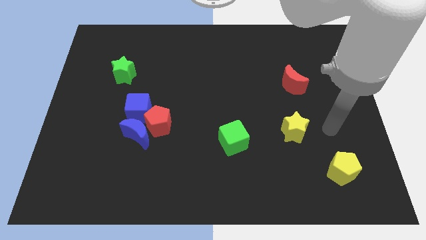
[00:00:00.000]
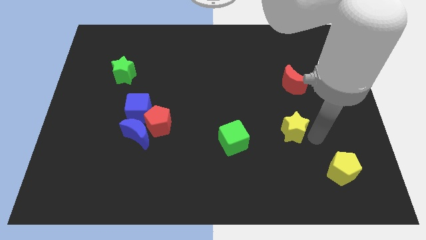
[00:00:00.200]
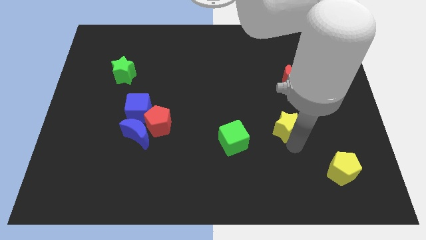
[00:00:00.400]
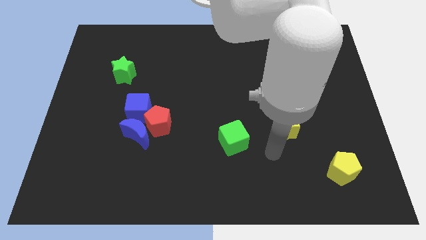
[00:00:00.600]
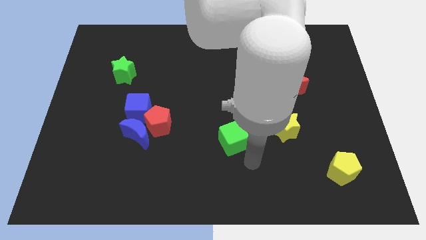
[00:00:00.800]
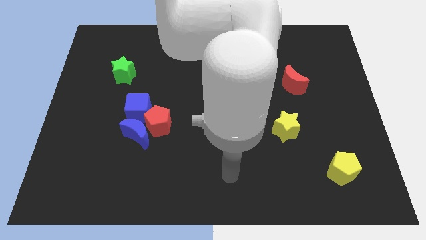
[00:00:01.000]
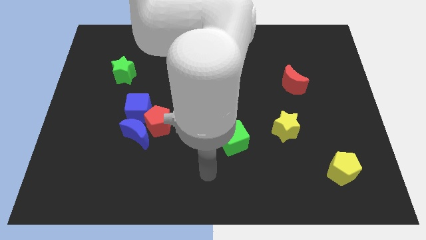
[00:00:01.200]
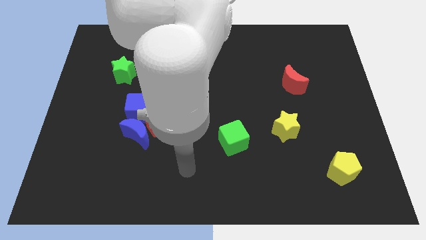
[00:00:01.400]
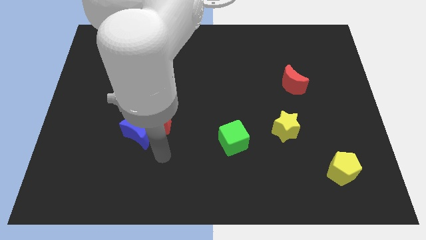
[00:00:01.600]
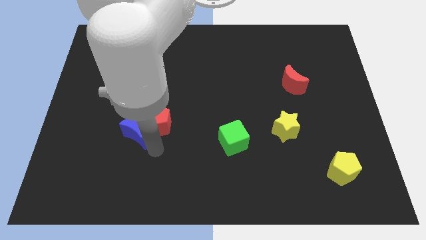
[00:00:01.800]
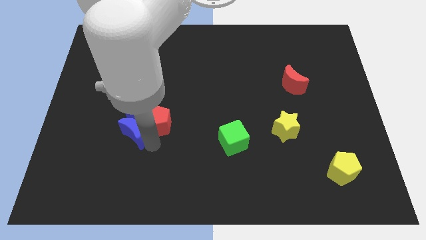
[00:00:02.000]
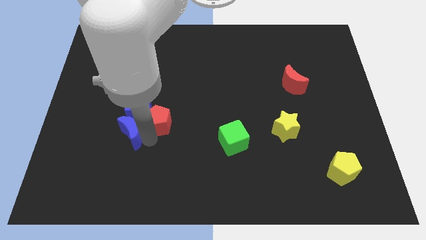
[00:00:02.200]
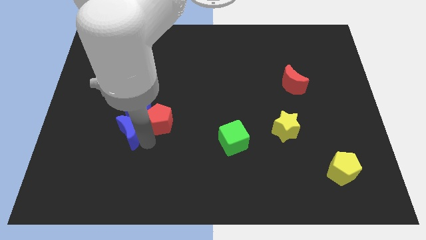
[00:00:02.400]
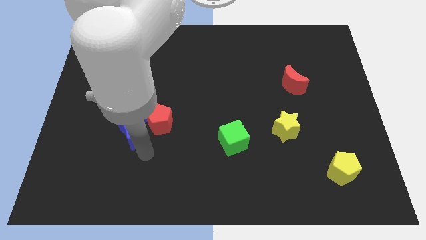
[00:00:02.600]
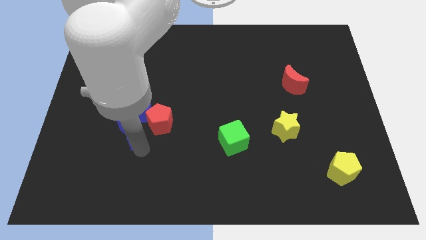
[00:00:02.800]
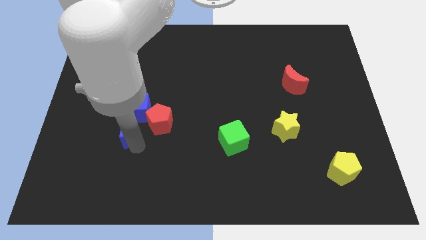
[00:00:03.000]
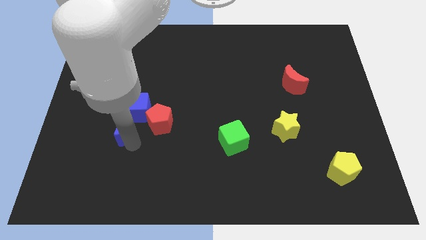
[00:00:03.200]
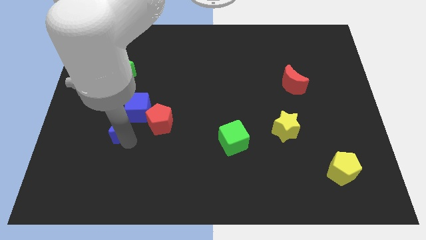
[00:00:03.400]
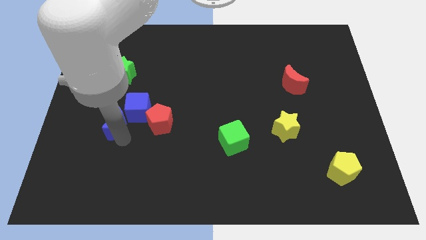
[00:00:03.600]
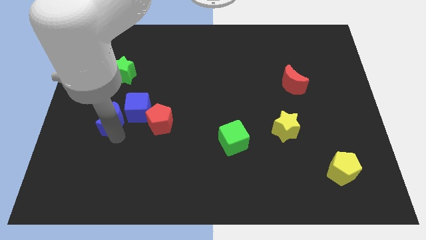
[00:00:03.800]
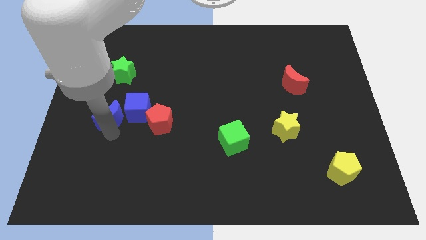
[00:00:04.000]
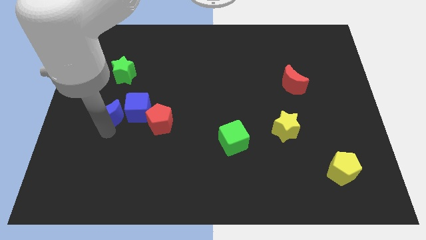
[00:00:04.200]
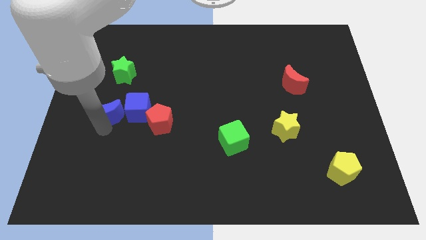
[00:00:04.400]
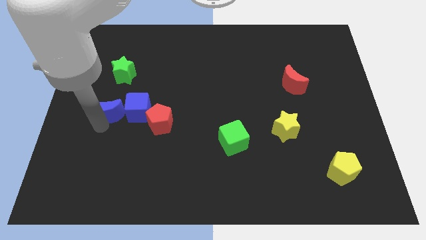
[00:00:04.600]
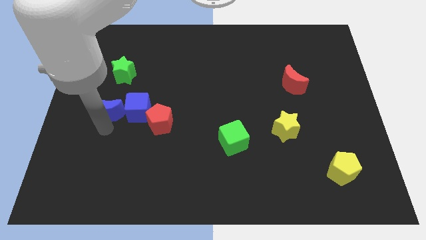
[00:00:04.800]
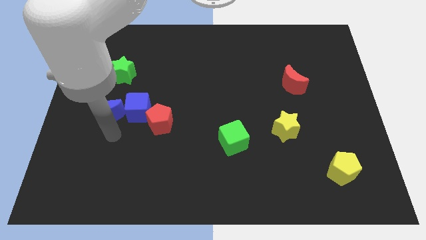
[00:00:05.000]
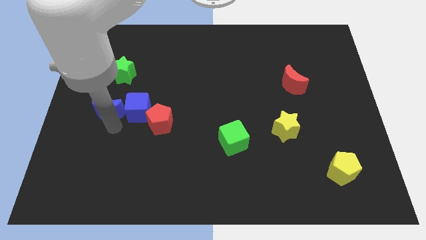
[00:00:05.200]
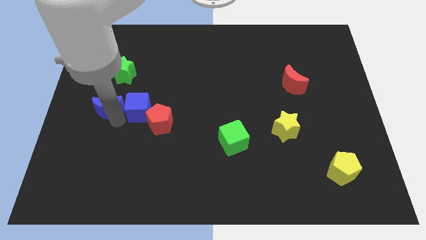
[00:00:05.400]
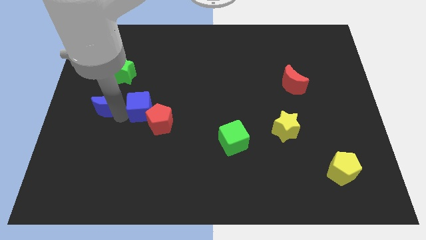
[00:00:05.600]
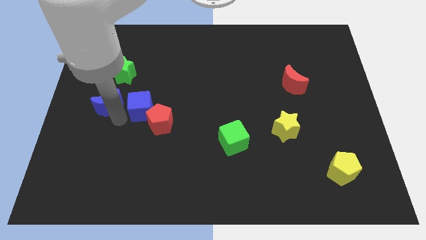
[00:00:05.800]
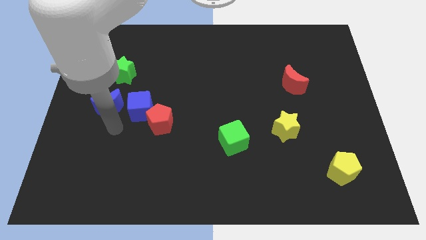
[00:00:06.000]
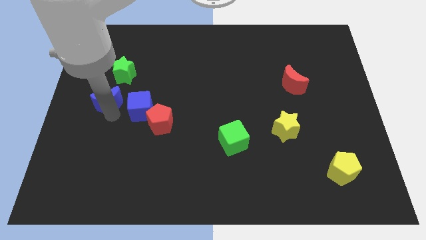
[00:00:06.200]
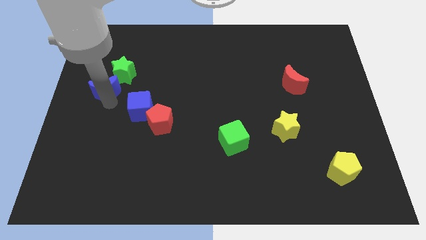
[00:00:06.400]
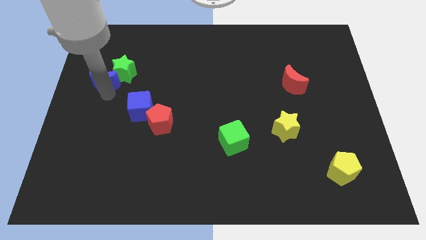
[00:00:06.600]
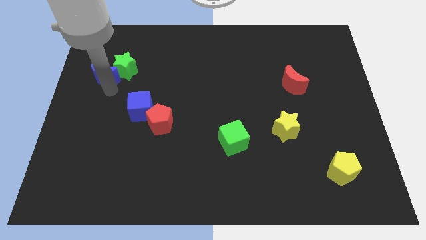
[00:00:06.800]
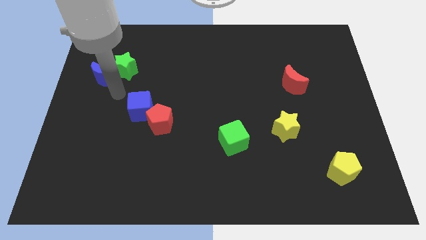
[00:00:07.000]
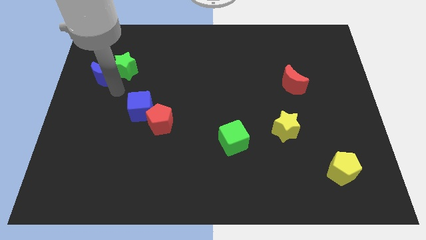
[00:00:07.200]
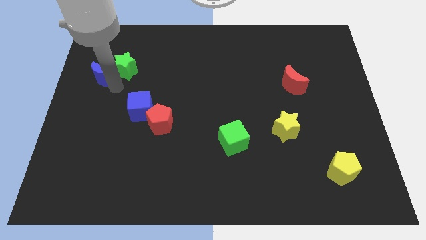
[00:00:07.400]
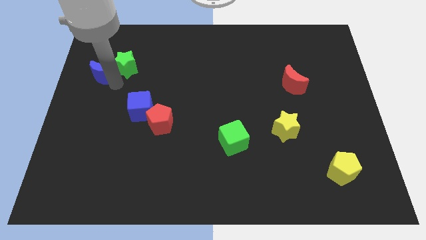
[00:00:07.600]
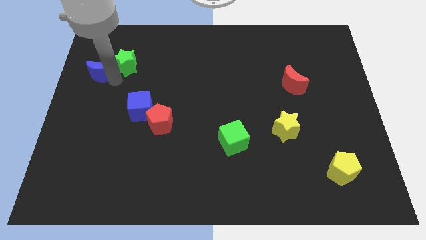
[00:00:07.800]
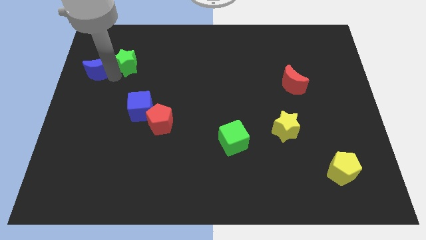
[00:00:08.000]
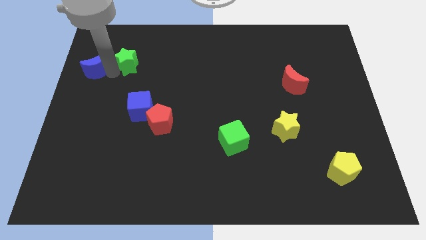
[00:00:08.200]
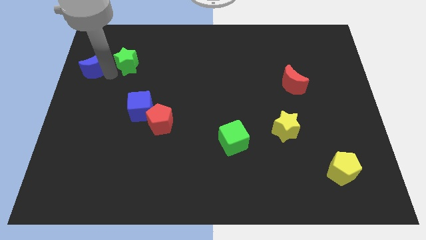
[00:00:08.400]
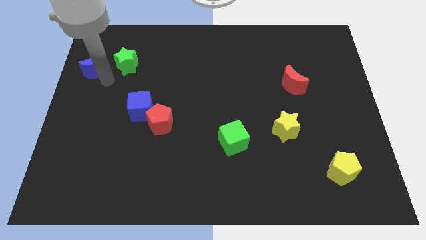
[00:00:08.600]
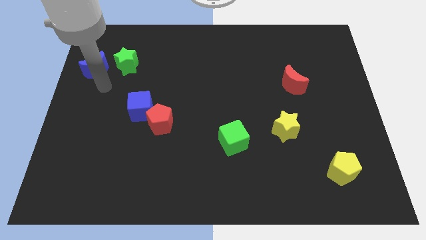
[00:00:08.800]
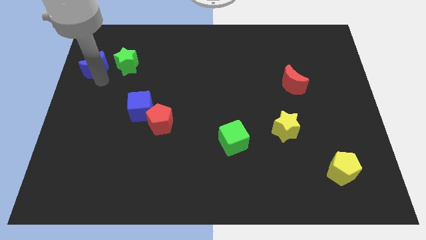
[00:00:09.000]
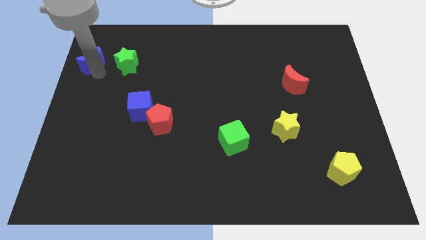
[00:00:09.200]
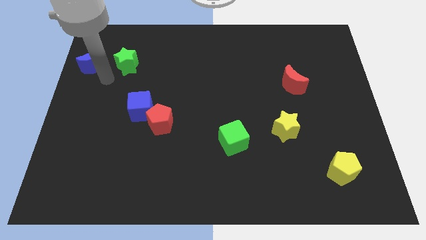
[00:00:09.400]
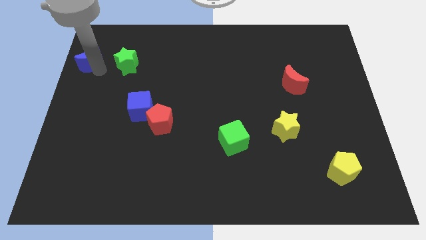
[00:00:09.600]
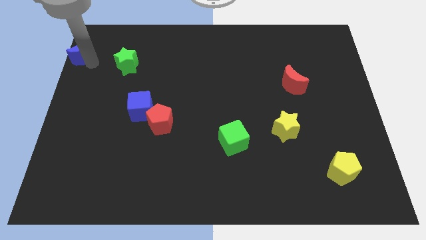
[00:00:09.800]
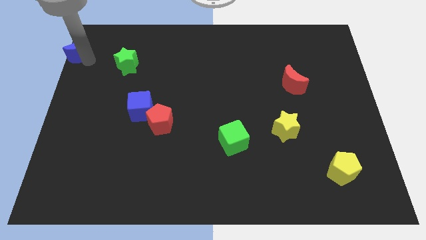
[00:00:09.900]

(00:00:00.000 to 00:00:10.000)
slide the blue moon to the top left

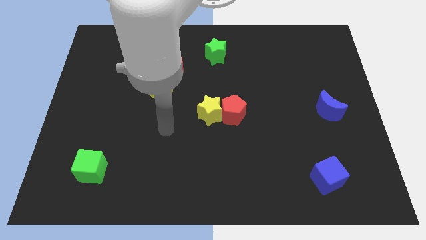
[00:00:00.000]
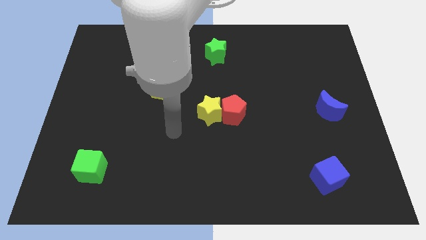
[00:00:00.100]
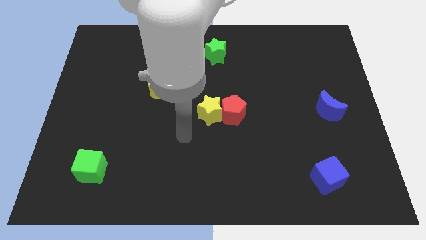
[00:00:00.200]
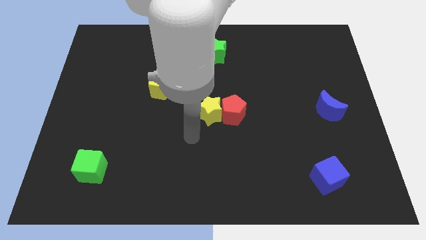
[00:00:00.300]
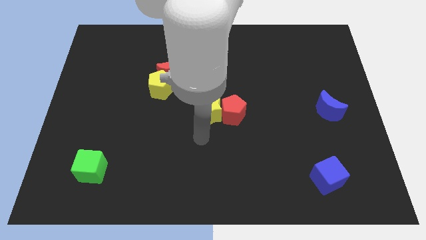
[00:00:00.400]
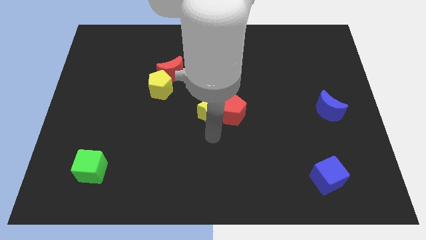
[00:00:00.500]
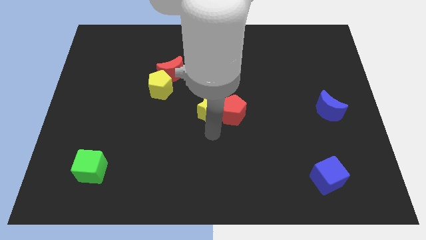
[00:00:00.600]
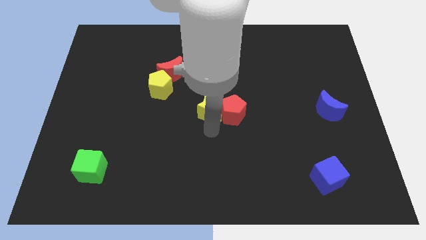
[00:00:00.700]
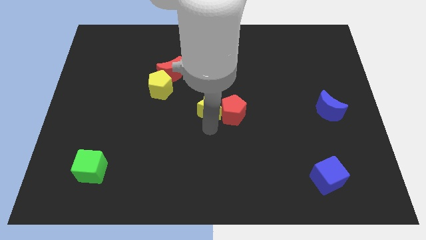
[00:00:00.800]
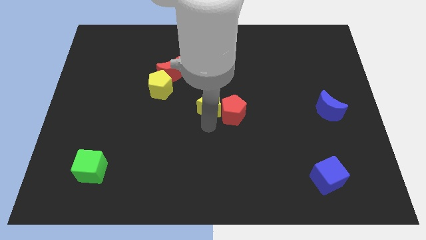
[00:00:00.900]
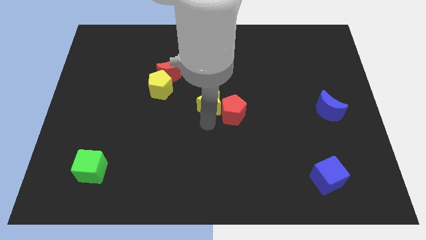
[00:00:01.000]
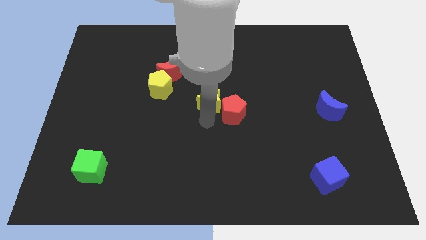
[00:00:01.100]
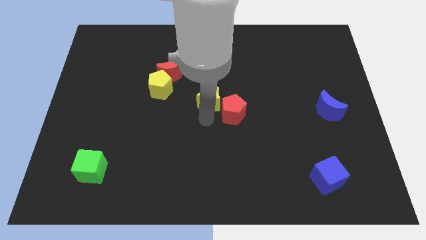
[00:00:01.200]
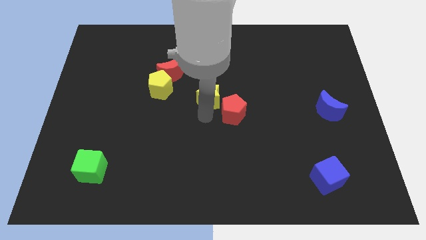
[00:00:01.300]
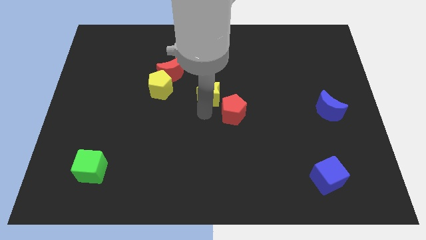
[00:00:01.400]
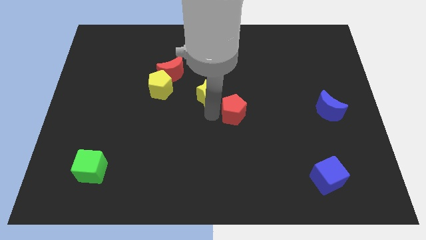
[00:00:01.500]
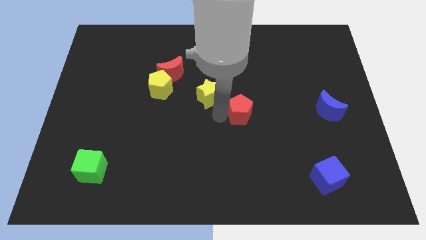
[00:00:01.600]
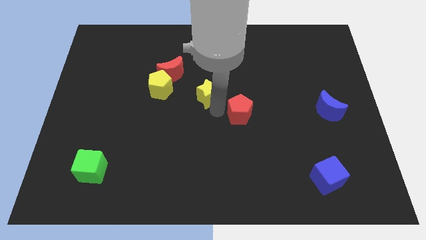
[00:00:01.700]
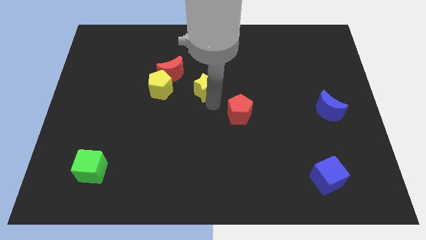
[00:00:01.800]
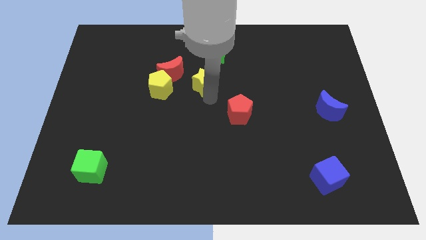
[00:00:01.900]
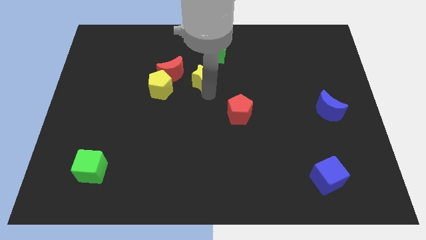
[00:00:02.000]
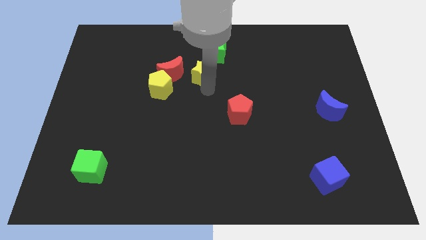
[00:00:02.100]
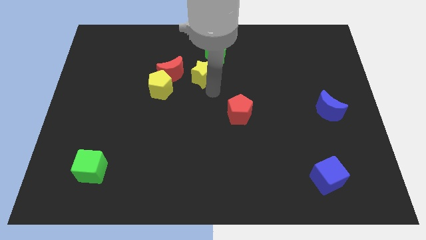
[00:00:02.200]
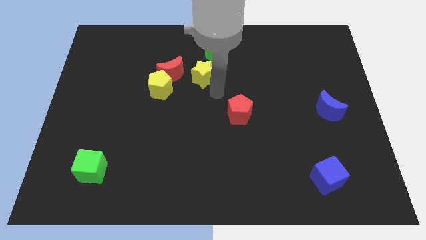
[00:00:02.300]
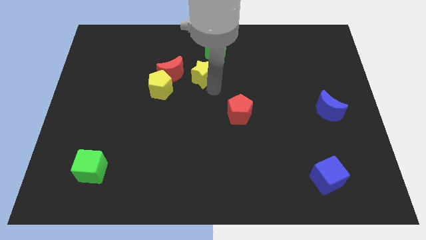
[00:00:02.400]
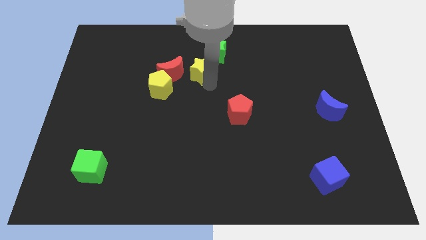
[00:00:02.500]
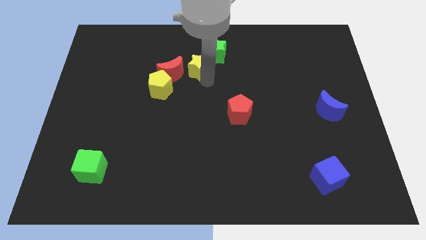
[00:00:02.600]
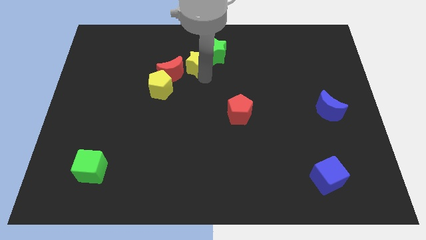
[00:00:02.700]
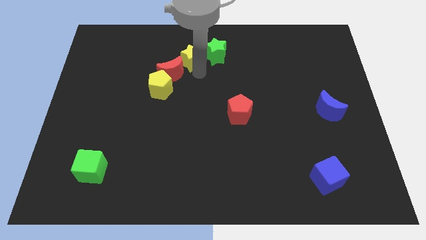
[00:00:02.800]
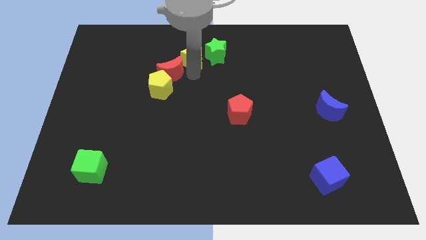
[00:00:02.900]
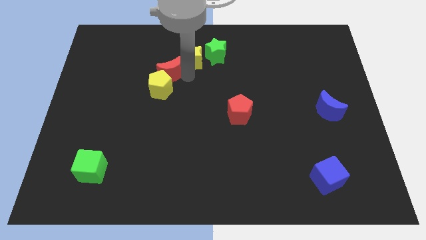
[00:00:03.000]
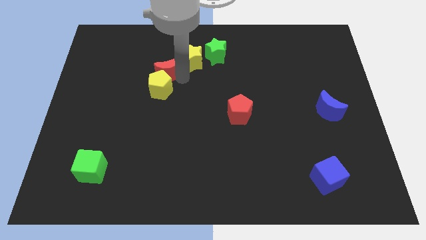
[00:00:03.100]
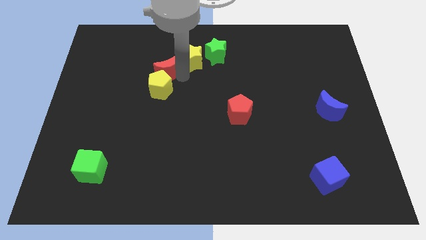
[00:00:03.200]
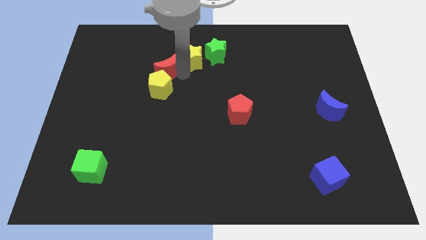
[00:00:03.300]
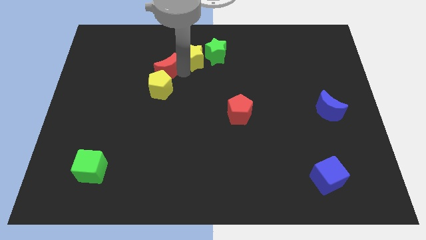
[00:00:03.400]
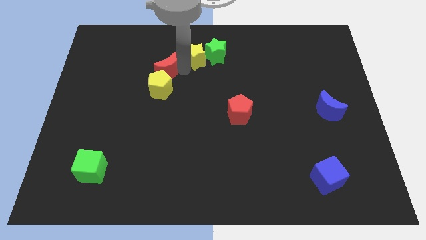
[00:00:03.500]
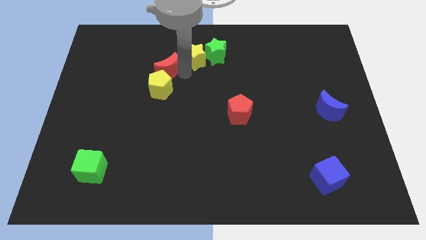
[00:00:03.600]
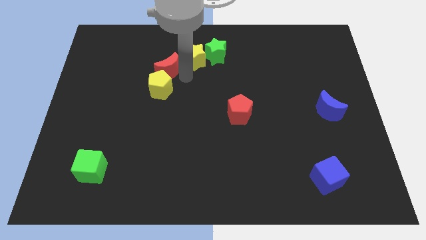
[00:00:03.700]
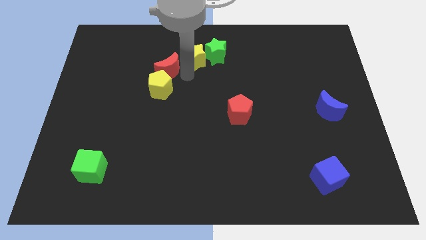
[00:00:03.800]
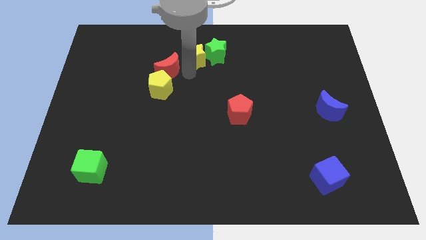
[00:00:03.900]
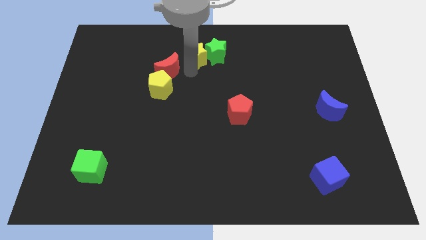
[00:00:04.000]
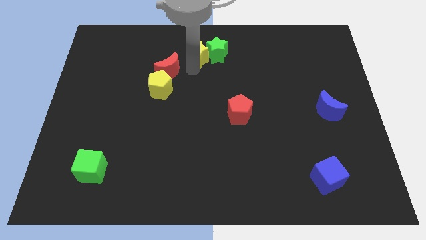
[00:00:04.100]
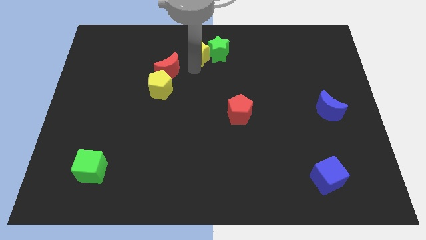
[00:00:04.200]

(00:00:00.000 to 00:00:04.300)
move the yellow star to the top side
